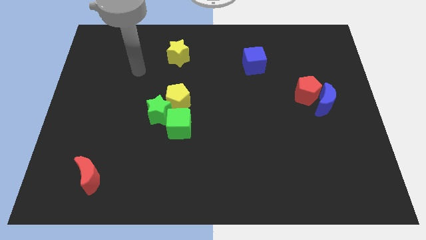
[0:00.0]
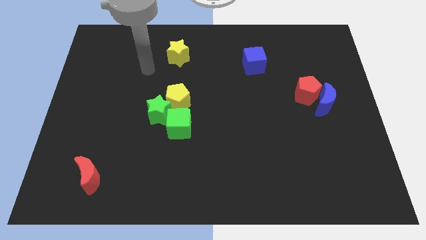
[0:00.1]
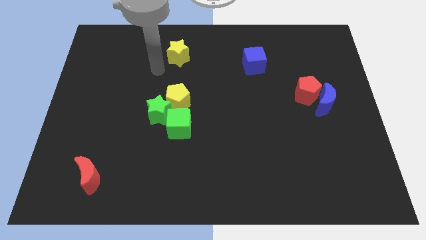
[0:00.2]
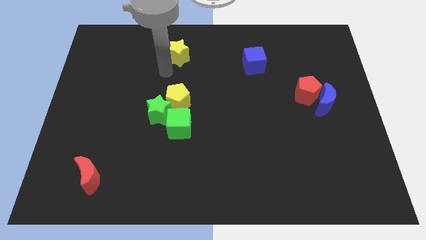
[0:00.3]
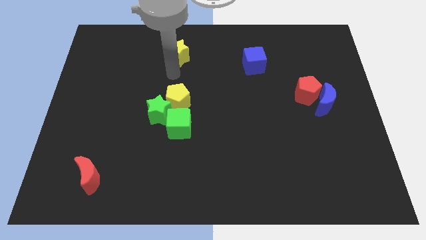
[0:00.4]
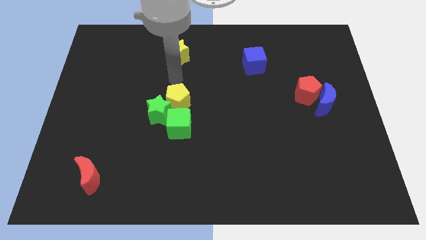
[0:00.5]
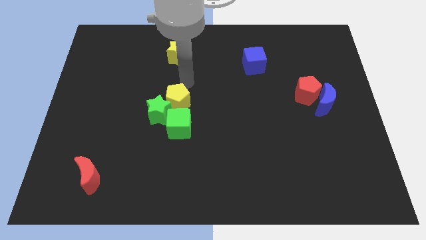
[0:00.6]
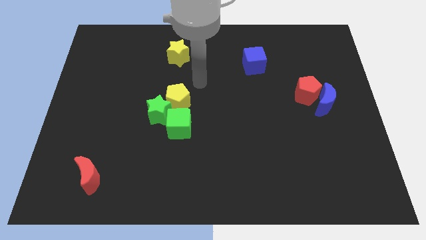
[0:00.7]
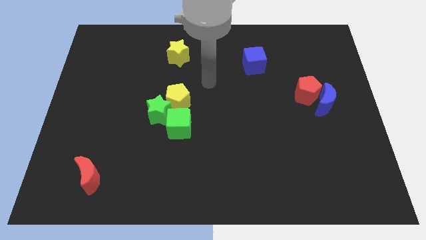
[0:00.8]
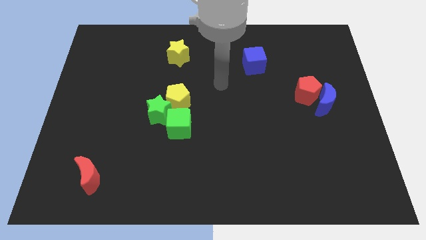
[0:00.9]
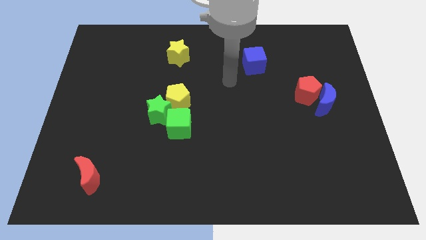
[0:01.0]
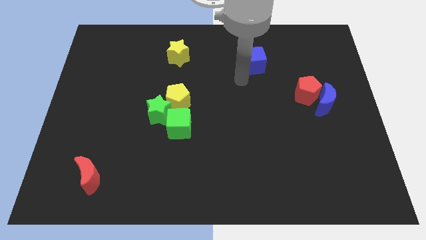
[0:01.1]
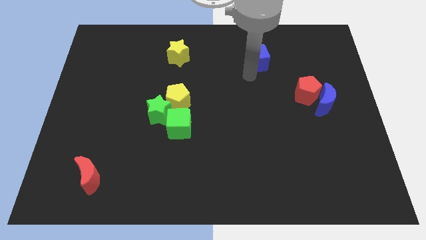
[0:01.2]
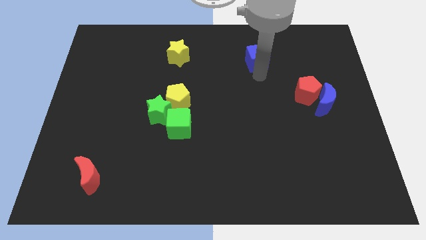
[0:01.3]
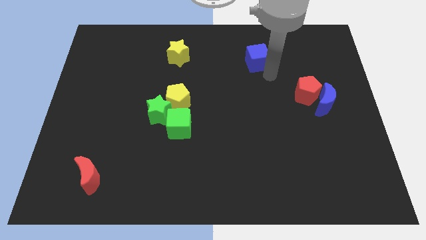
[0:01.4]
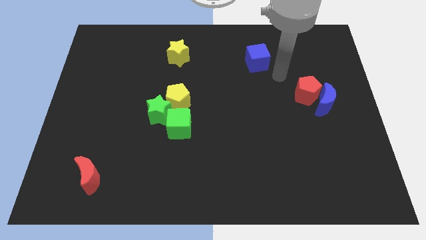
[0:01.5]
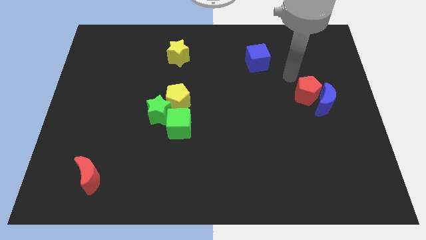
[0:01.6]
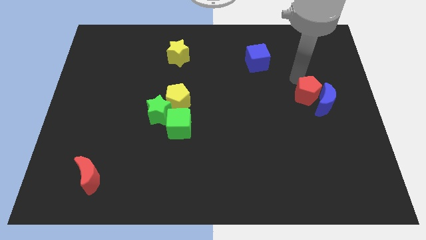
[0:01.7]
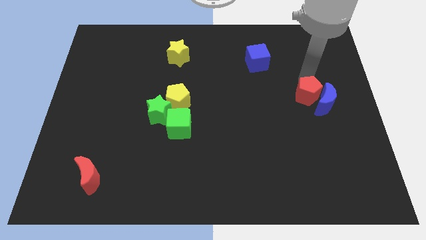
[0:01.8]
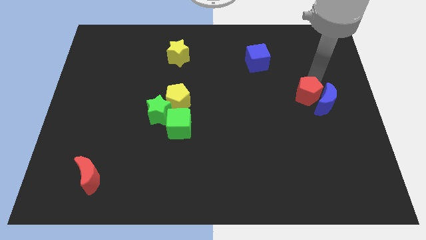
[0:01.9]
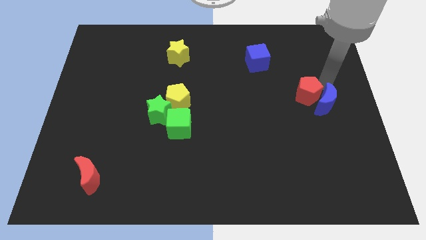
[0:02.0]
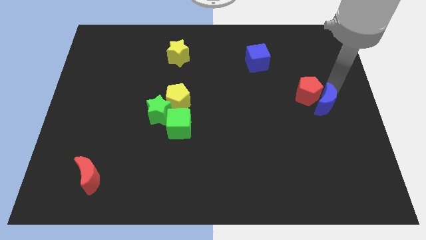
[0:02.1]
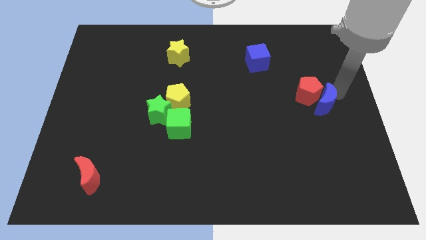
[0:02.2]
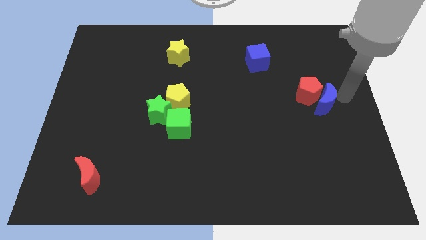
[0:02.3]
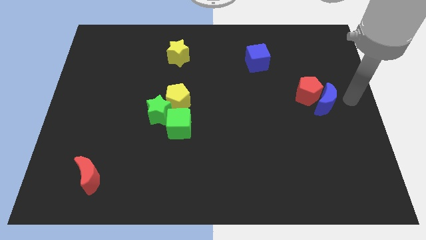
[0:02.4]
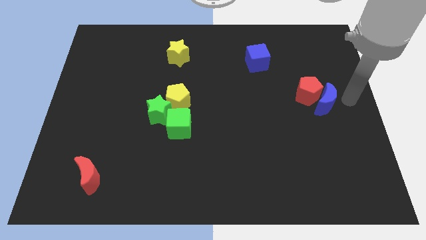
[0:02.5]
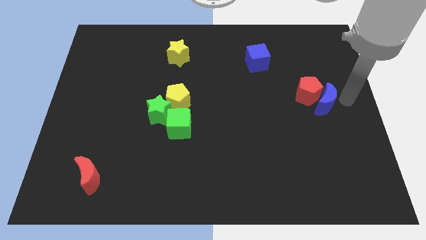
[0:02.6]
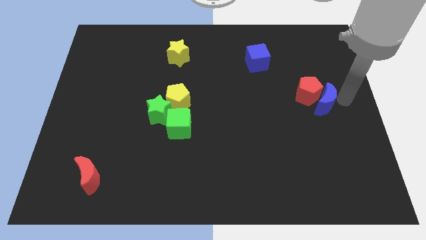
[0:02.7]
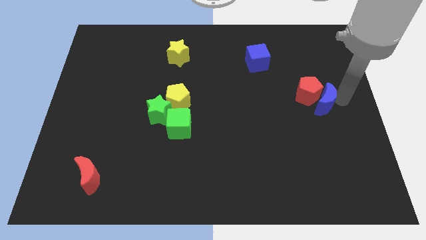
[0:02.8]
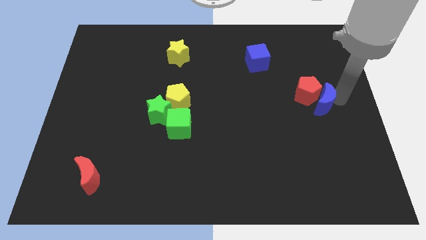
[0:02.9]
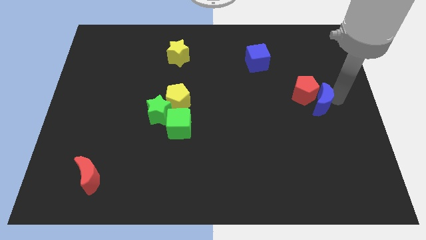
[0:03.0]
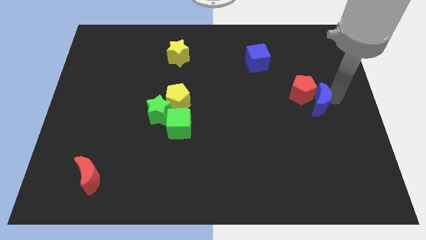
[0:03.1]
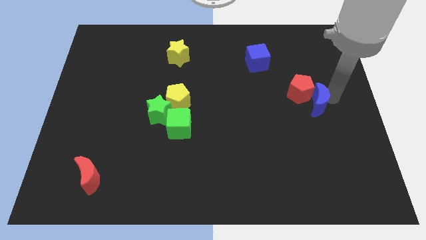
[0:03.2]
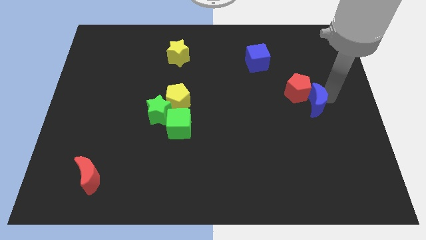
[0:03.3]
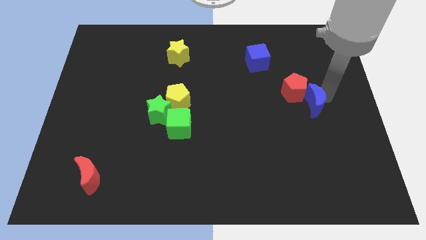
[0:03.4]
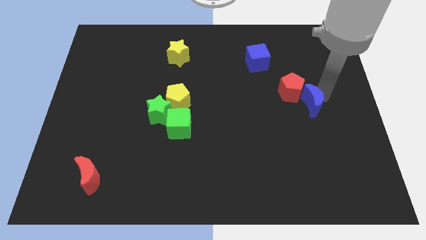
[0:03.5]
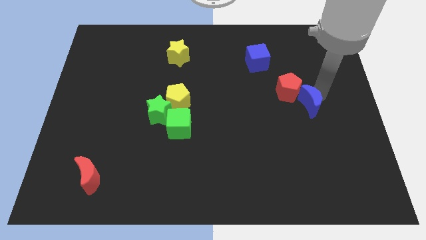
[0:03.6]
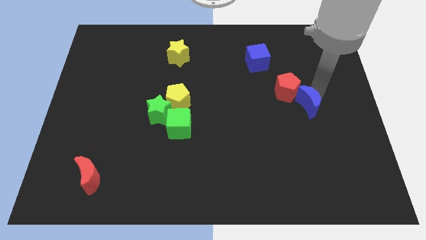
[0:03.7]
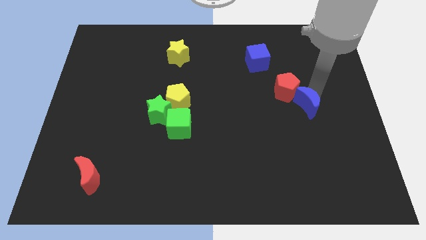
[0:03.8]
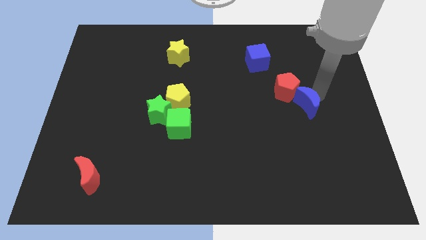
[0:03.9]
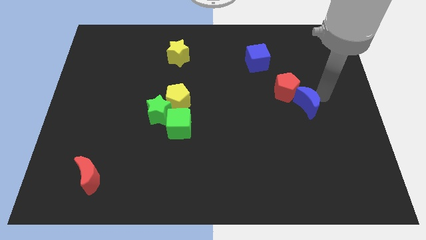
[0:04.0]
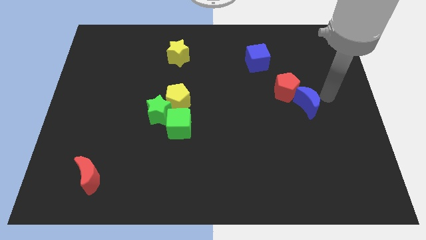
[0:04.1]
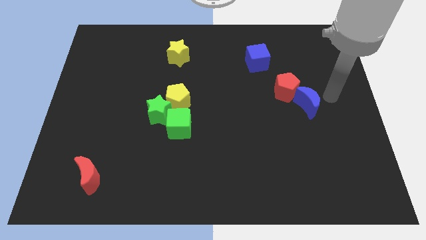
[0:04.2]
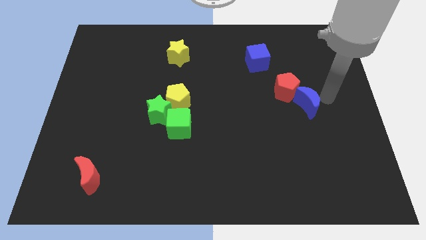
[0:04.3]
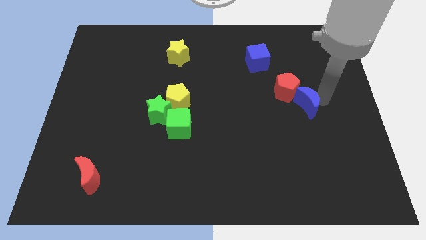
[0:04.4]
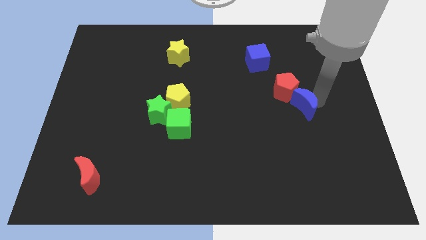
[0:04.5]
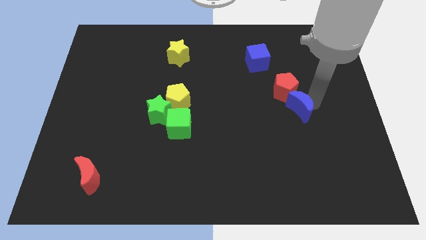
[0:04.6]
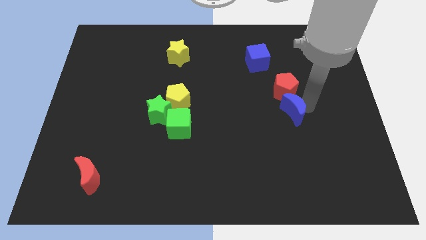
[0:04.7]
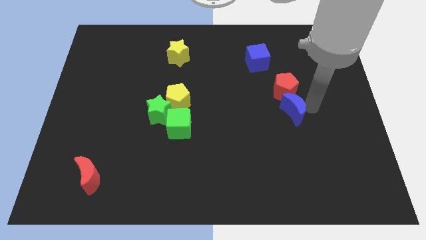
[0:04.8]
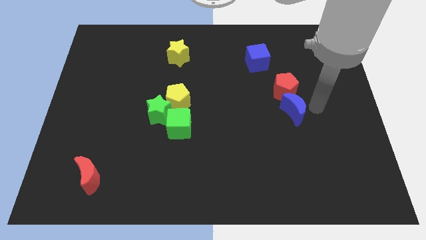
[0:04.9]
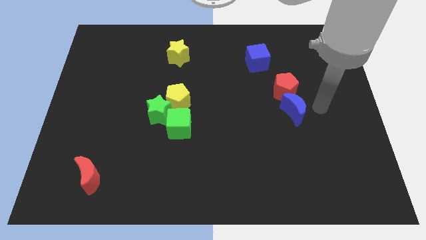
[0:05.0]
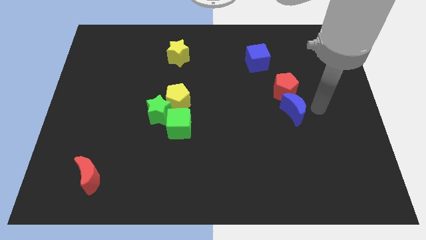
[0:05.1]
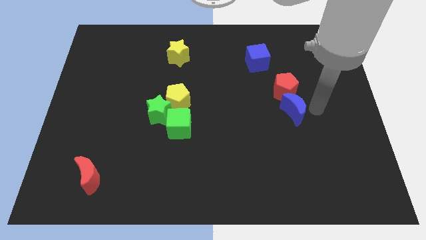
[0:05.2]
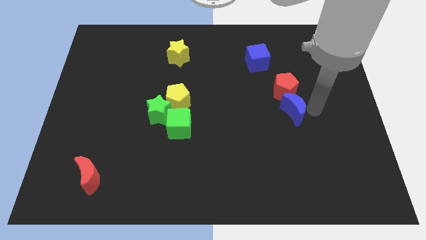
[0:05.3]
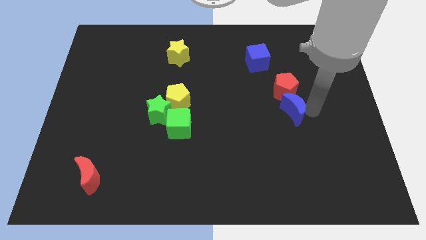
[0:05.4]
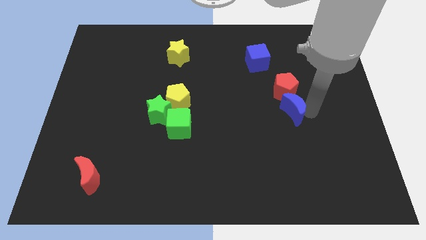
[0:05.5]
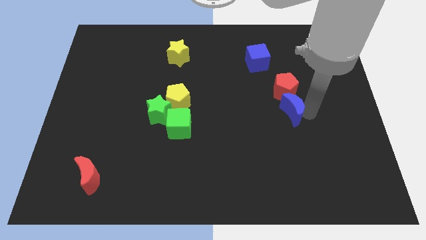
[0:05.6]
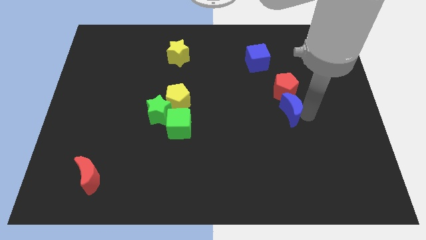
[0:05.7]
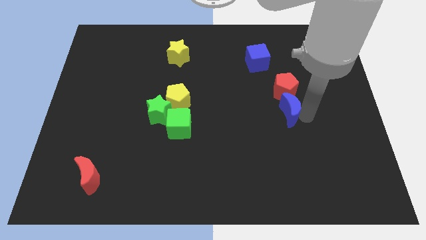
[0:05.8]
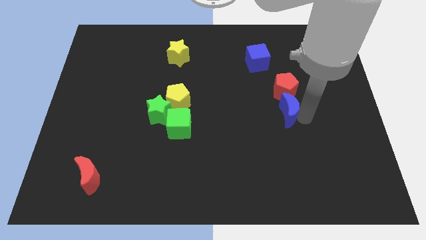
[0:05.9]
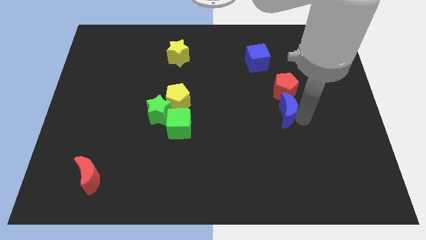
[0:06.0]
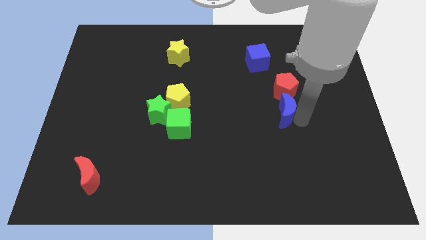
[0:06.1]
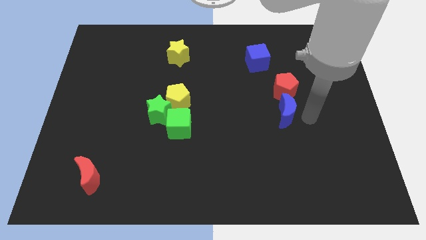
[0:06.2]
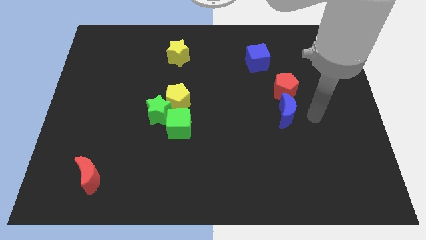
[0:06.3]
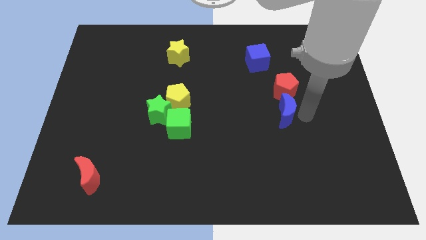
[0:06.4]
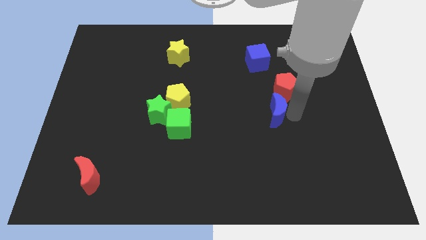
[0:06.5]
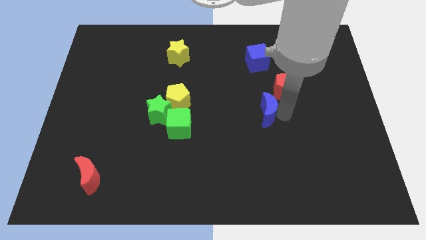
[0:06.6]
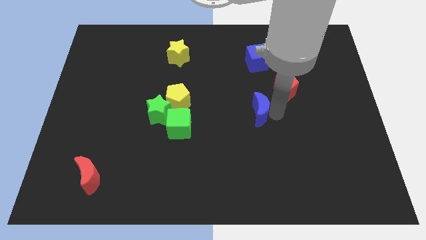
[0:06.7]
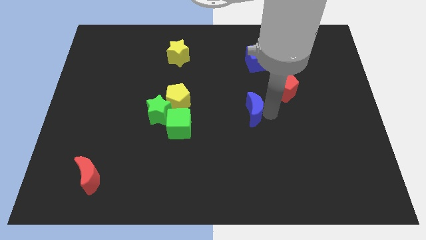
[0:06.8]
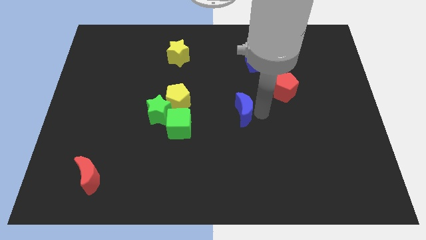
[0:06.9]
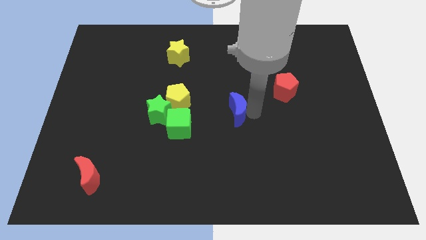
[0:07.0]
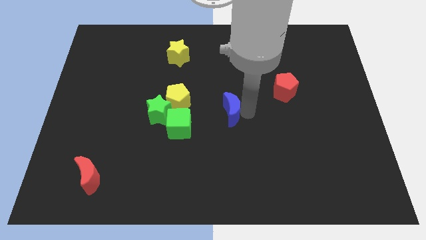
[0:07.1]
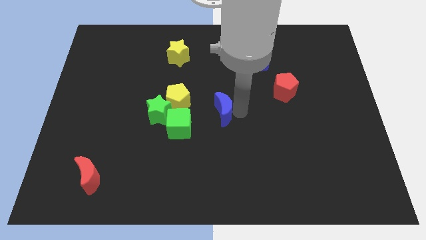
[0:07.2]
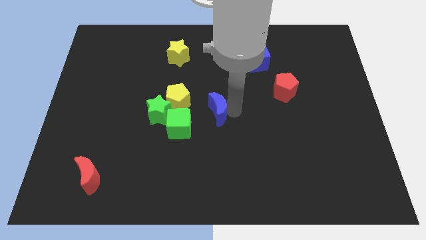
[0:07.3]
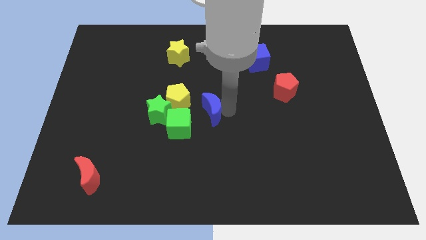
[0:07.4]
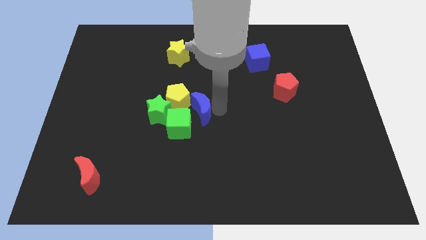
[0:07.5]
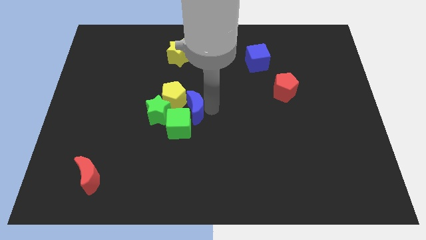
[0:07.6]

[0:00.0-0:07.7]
push the blue moon next to the green cube

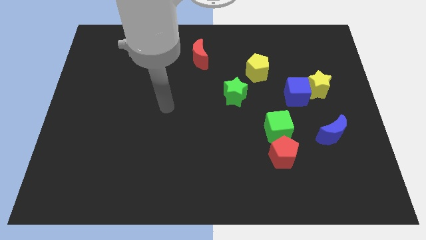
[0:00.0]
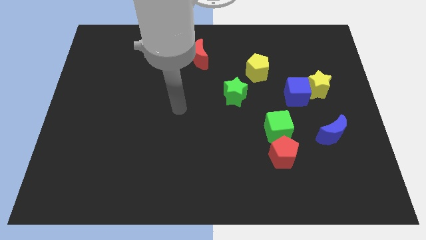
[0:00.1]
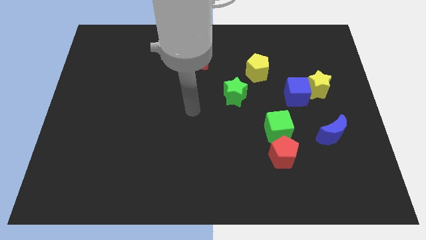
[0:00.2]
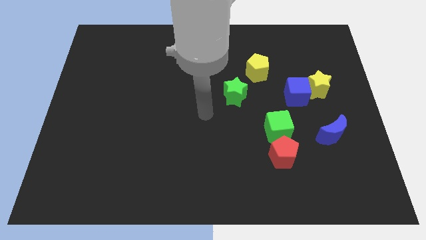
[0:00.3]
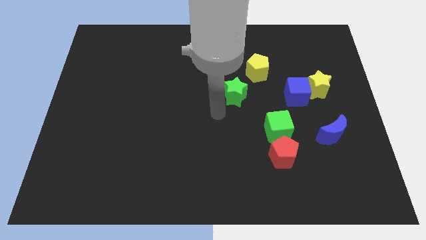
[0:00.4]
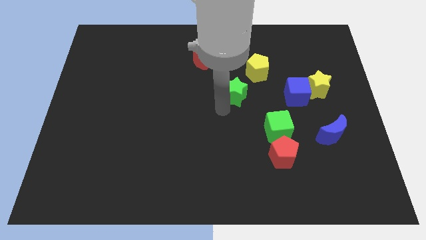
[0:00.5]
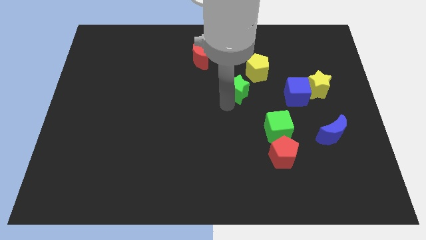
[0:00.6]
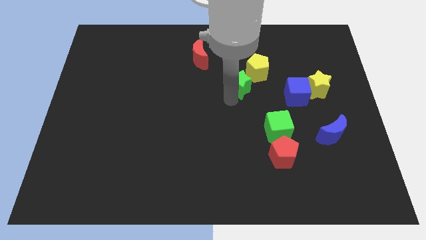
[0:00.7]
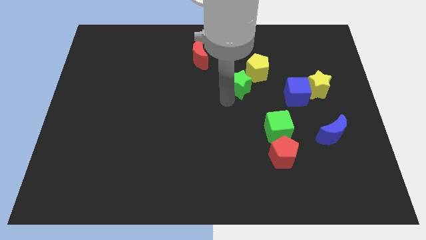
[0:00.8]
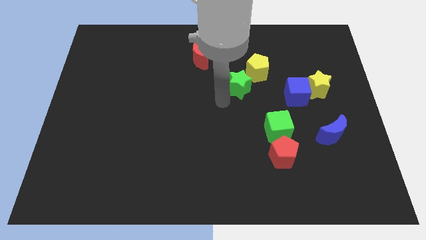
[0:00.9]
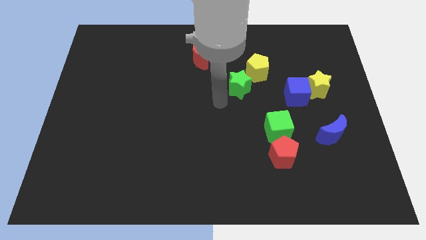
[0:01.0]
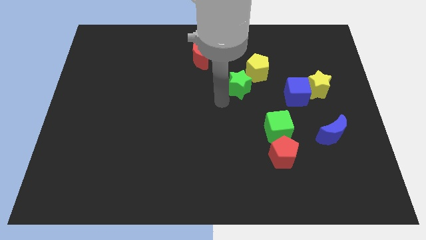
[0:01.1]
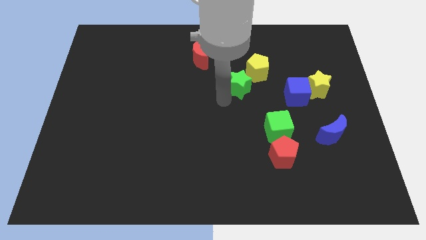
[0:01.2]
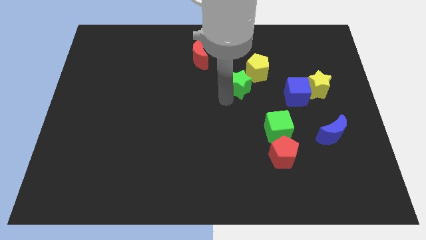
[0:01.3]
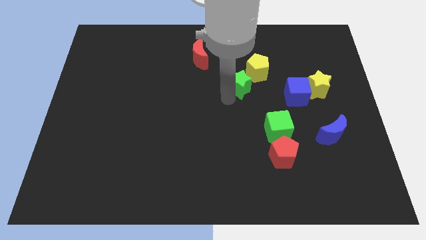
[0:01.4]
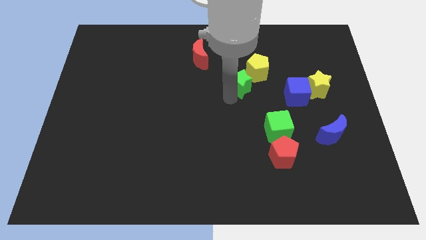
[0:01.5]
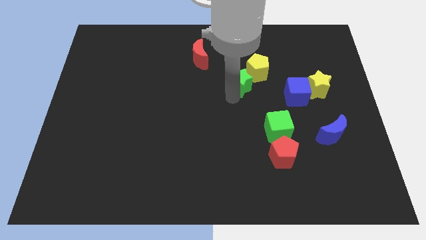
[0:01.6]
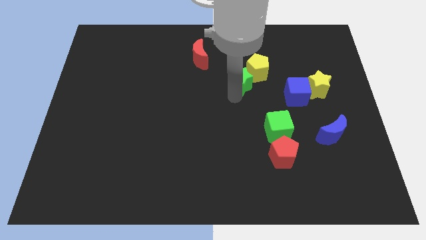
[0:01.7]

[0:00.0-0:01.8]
slide the green star close to the yellow pentagon
